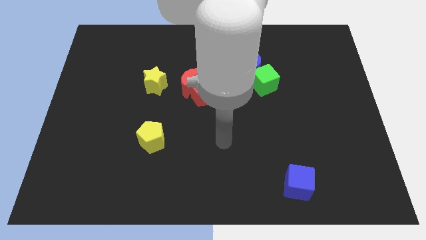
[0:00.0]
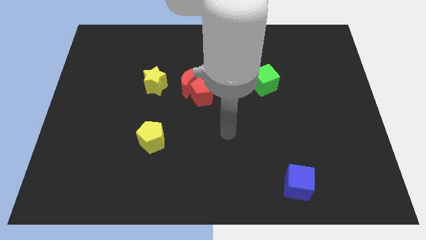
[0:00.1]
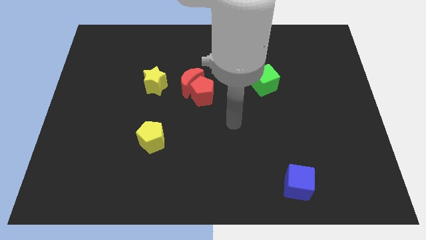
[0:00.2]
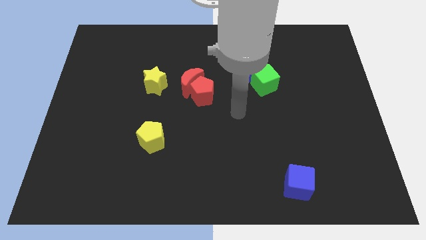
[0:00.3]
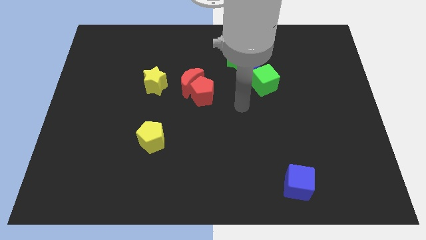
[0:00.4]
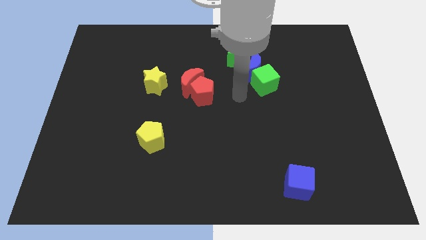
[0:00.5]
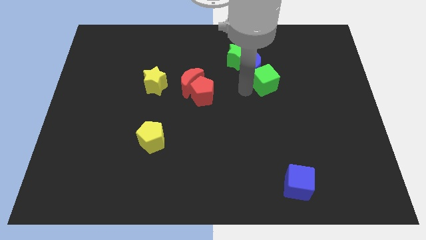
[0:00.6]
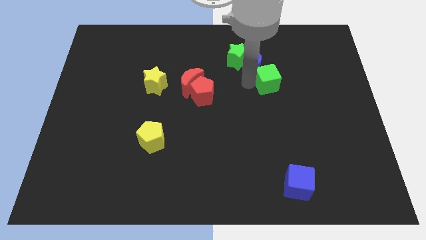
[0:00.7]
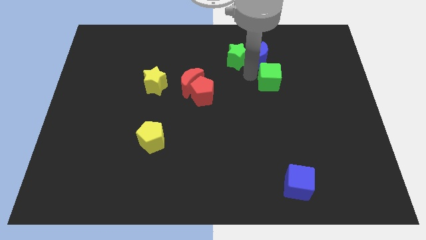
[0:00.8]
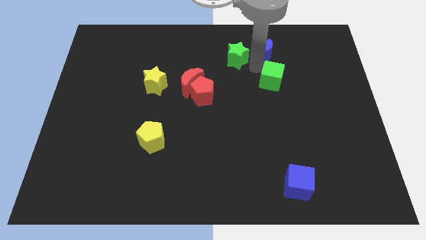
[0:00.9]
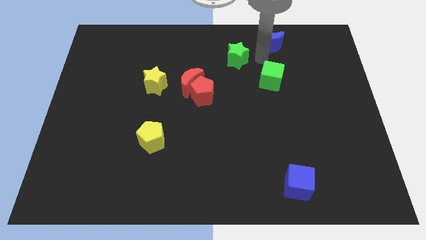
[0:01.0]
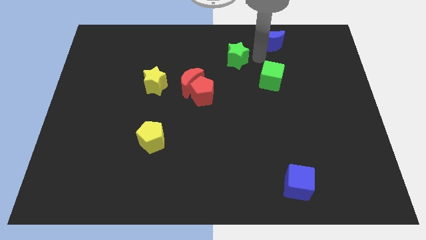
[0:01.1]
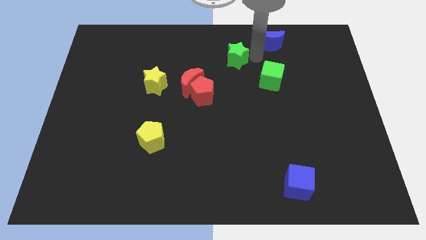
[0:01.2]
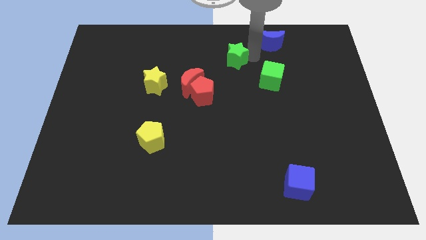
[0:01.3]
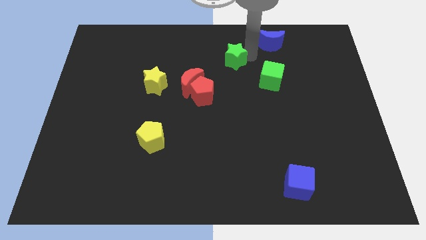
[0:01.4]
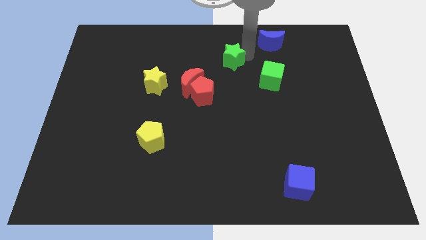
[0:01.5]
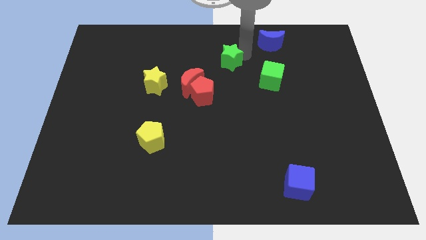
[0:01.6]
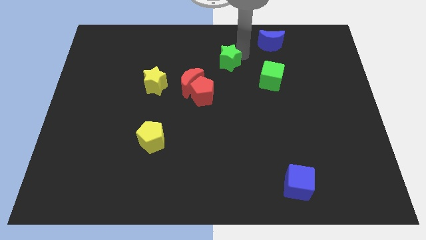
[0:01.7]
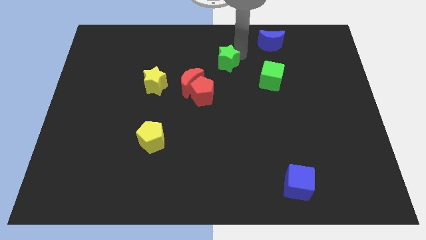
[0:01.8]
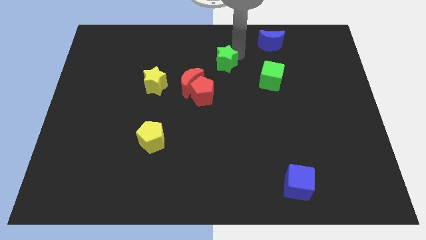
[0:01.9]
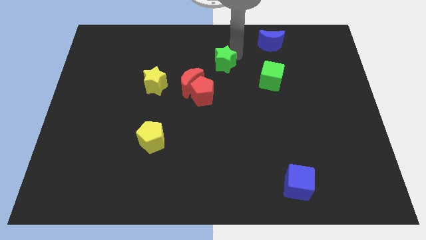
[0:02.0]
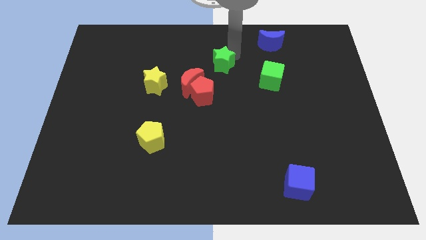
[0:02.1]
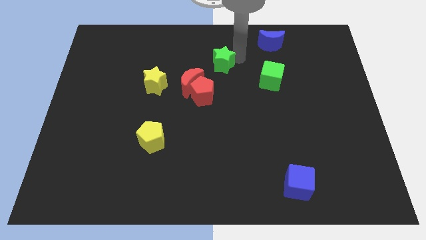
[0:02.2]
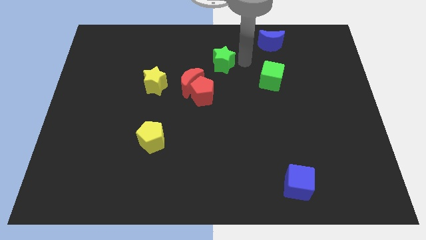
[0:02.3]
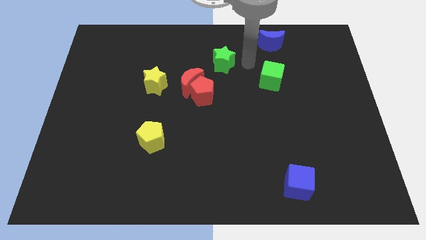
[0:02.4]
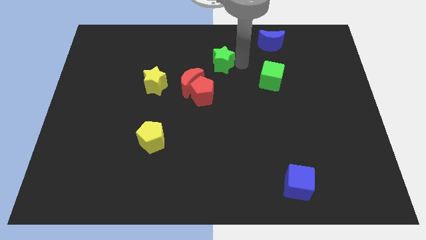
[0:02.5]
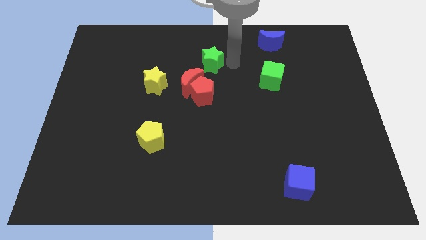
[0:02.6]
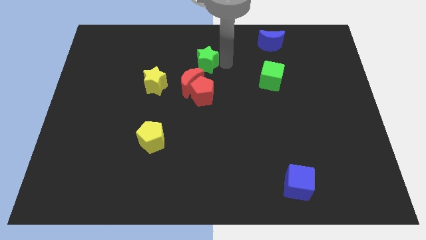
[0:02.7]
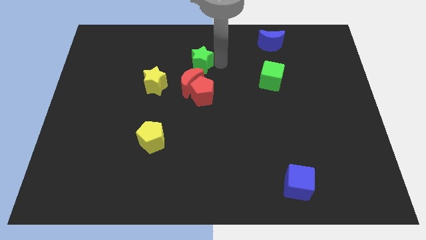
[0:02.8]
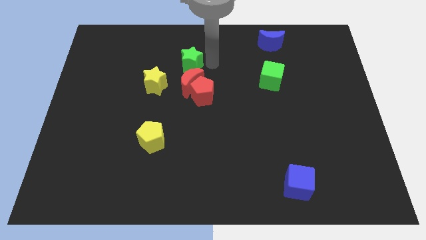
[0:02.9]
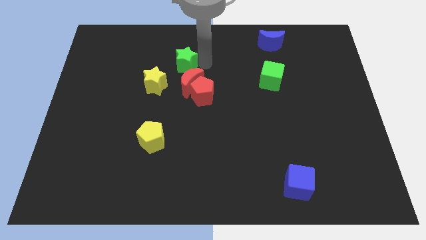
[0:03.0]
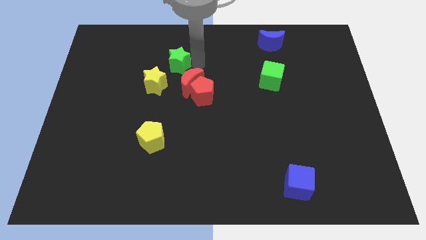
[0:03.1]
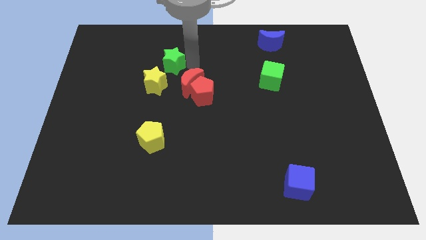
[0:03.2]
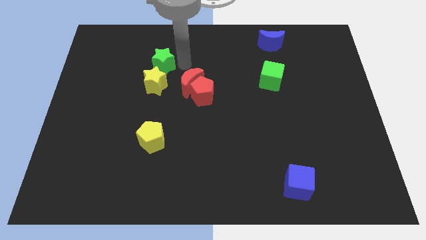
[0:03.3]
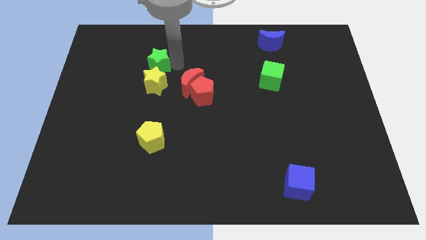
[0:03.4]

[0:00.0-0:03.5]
slide the green star to the left

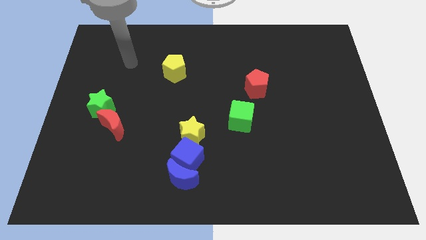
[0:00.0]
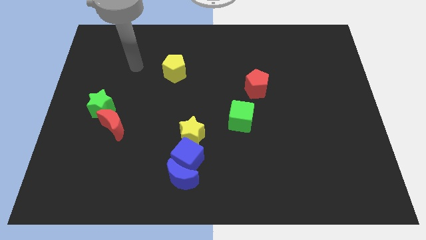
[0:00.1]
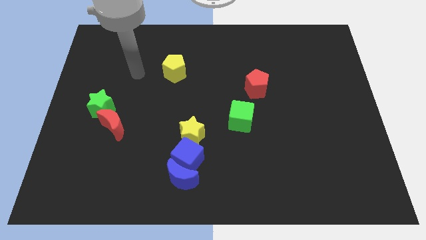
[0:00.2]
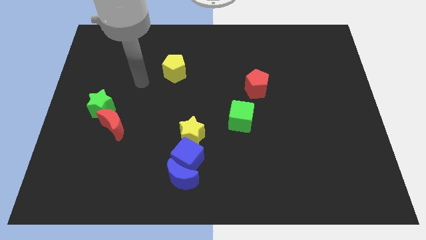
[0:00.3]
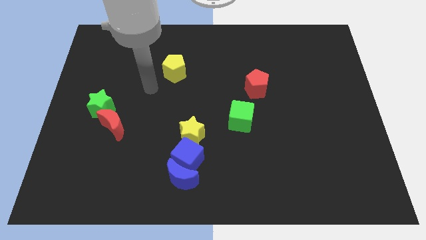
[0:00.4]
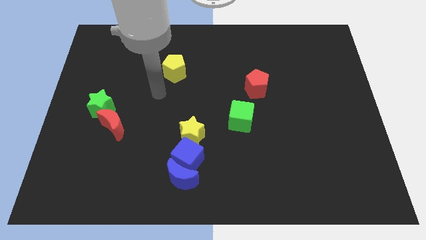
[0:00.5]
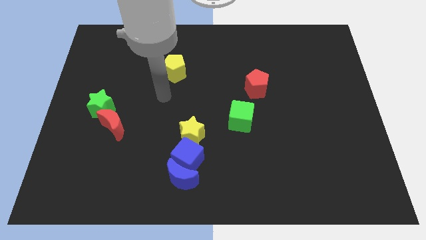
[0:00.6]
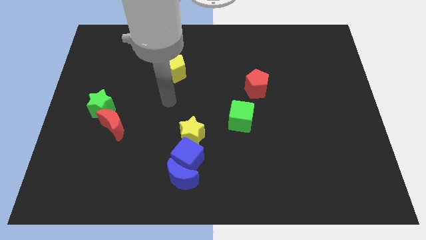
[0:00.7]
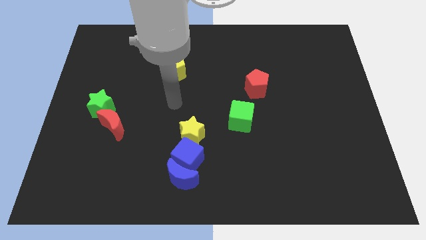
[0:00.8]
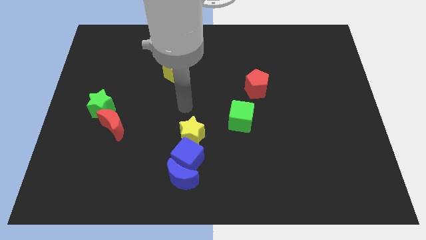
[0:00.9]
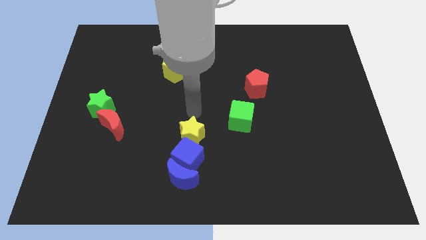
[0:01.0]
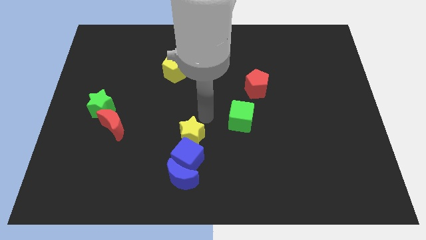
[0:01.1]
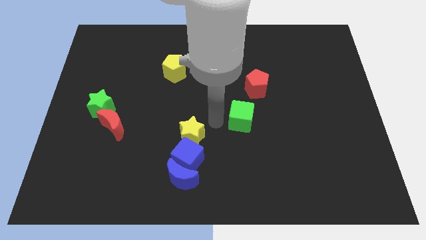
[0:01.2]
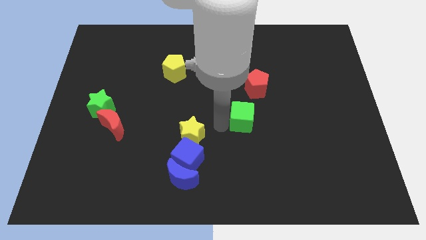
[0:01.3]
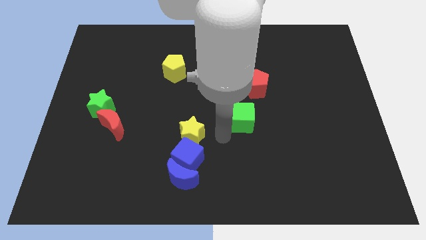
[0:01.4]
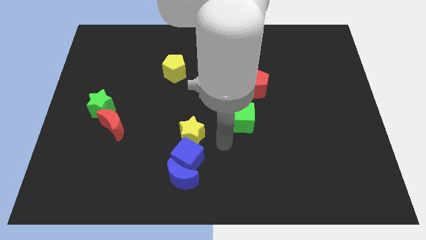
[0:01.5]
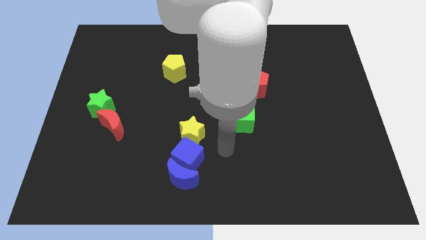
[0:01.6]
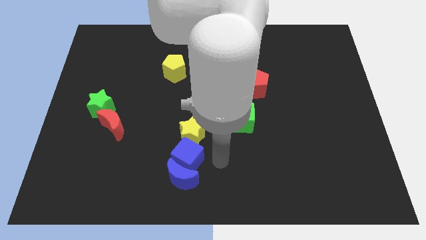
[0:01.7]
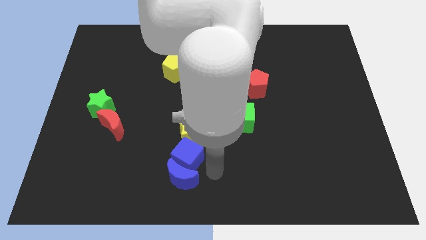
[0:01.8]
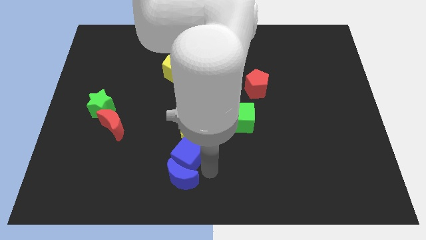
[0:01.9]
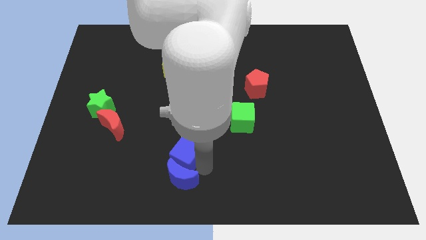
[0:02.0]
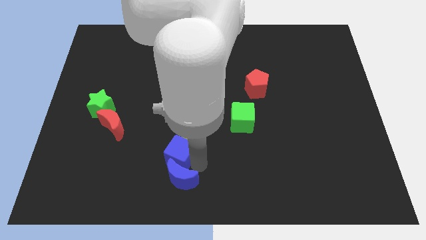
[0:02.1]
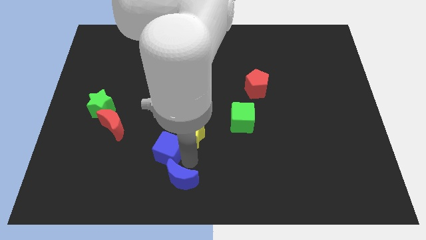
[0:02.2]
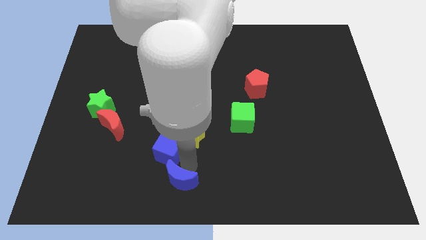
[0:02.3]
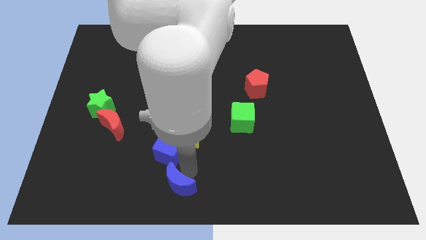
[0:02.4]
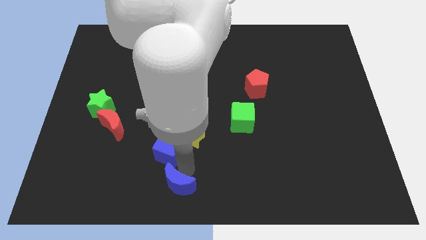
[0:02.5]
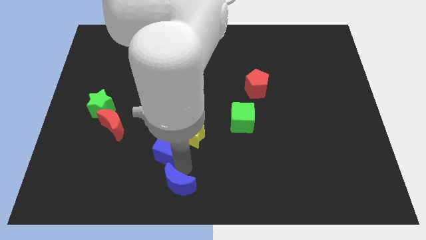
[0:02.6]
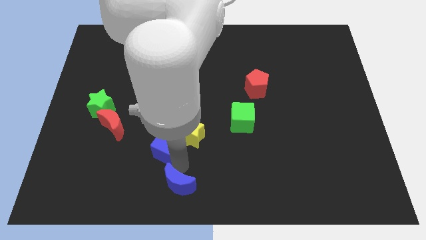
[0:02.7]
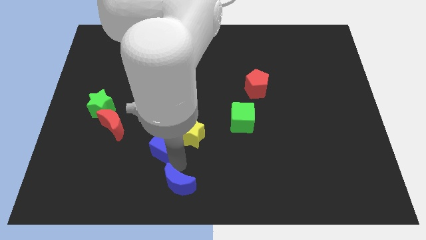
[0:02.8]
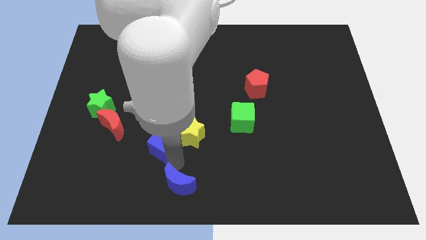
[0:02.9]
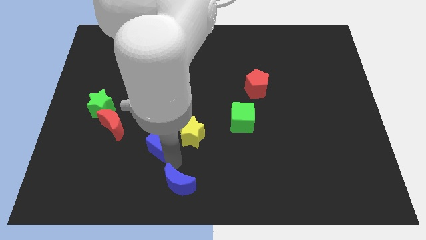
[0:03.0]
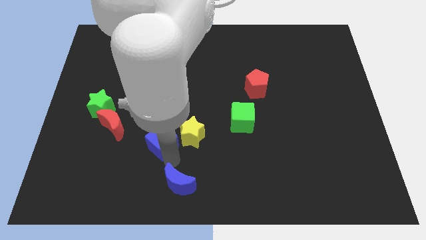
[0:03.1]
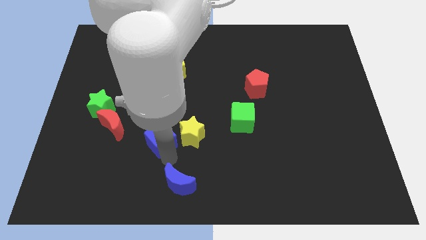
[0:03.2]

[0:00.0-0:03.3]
move the blue cube upwards and to the left slightly

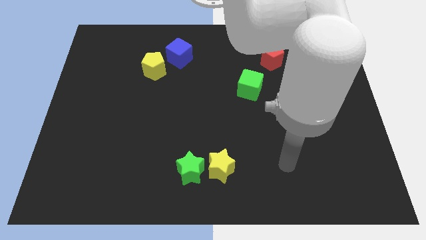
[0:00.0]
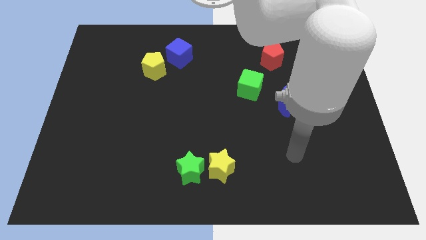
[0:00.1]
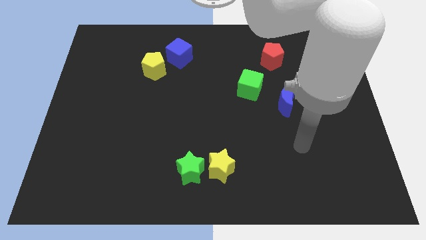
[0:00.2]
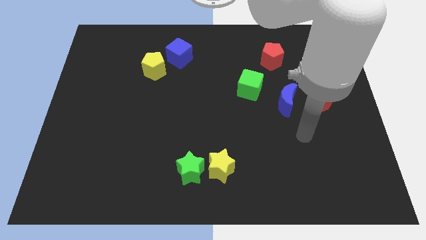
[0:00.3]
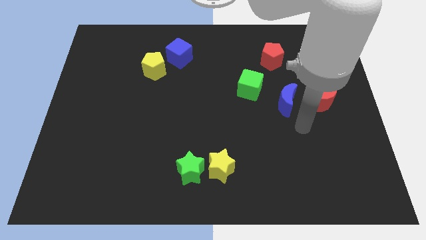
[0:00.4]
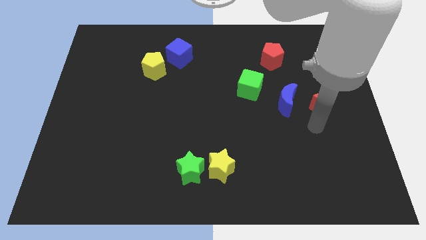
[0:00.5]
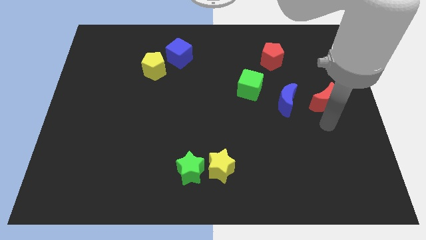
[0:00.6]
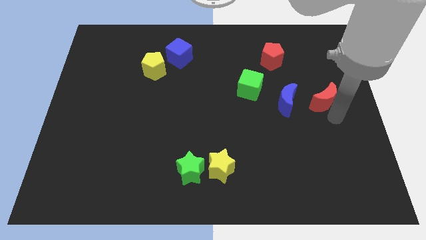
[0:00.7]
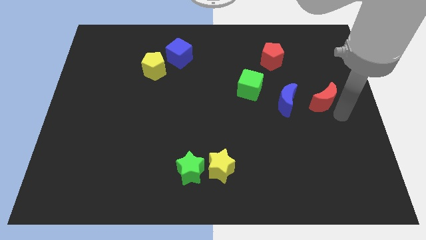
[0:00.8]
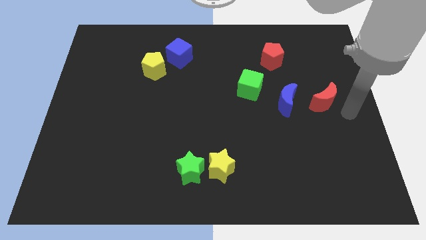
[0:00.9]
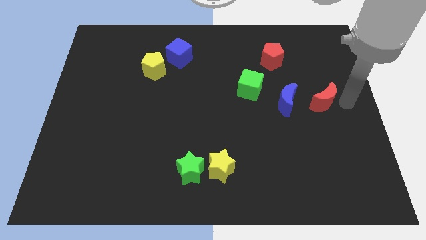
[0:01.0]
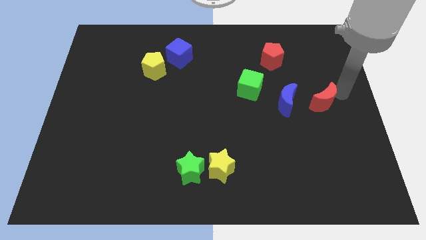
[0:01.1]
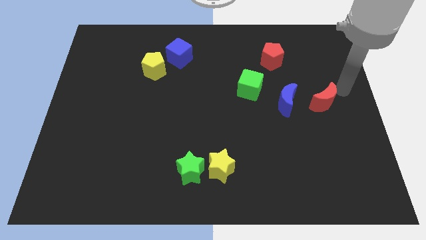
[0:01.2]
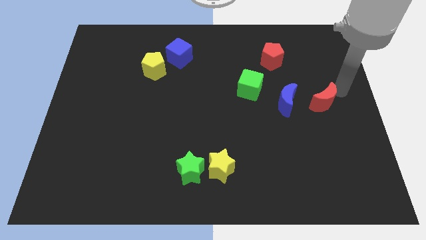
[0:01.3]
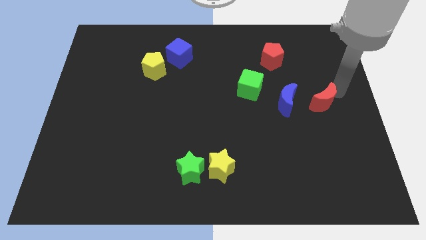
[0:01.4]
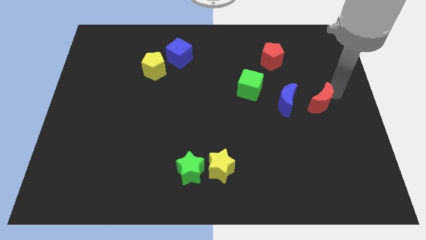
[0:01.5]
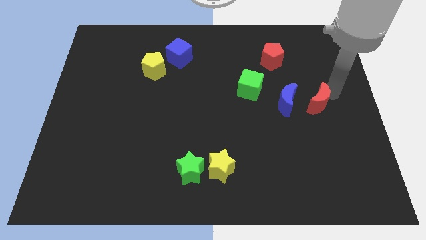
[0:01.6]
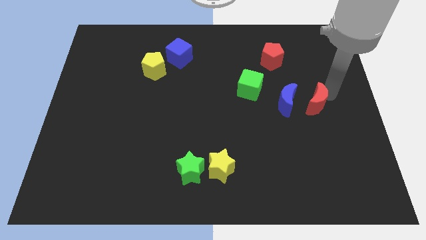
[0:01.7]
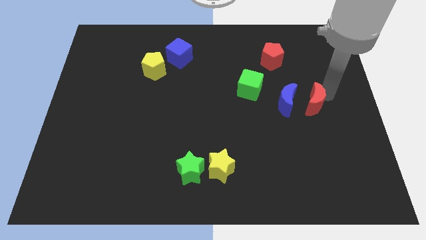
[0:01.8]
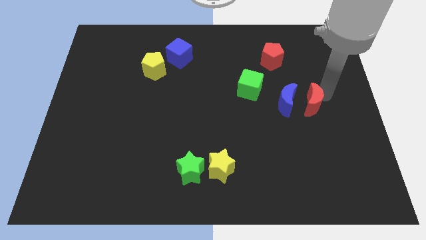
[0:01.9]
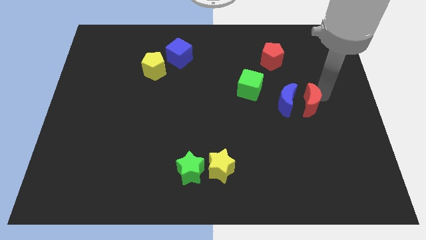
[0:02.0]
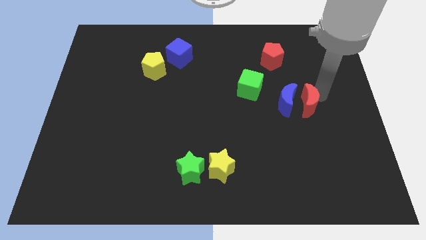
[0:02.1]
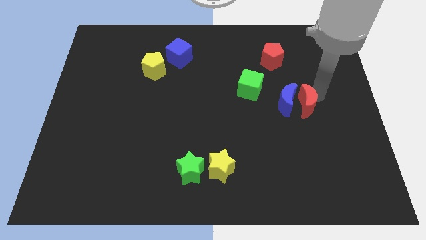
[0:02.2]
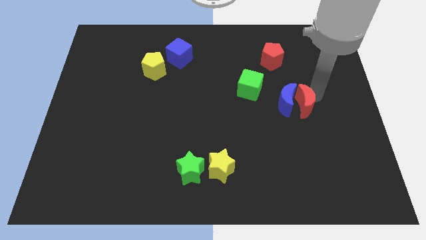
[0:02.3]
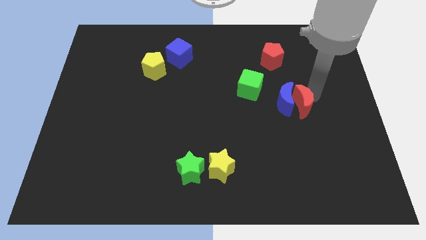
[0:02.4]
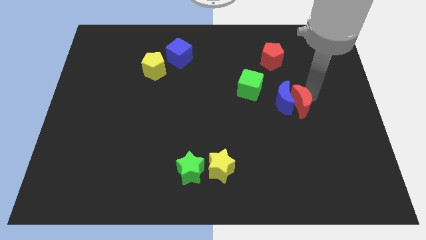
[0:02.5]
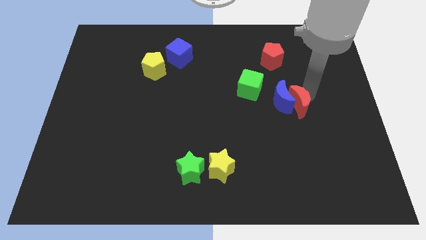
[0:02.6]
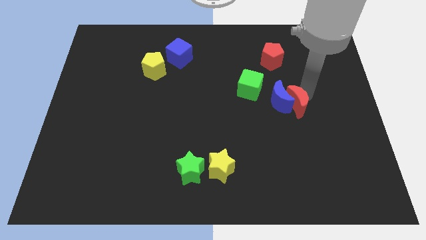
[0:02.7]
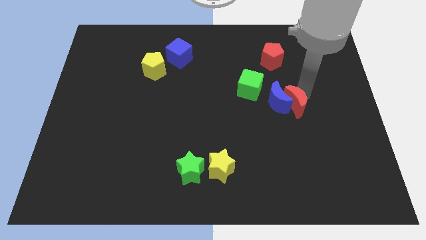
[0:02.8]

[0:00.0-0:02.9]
push the red moon to the left a little bit
